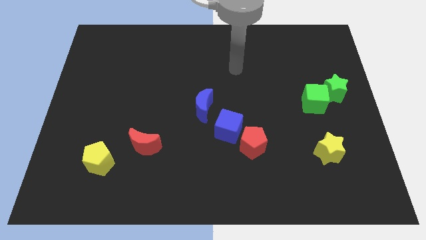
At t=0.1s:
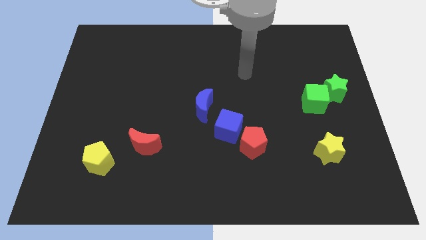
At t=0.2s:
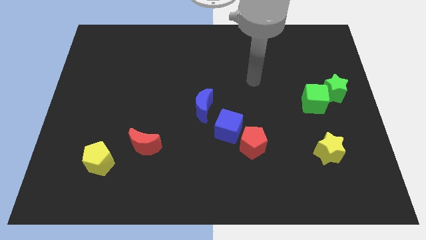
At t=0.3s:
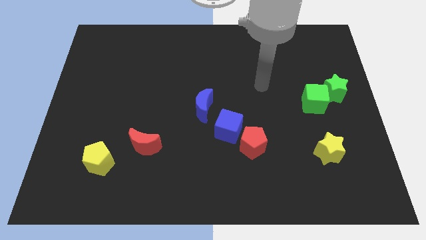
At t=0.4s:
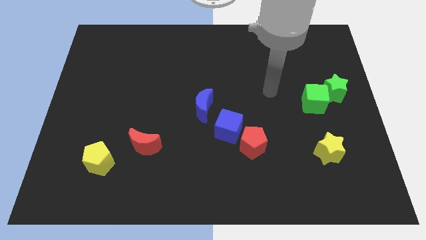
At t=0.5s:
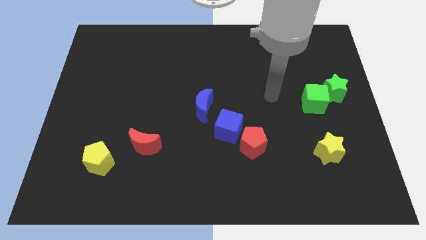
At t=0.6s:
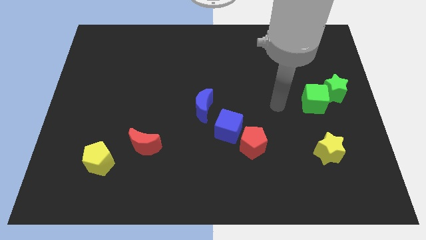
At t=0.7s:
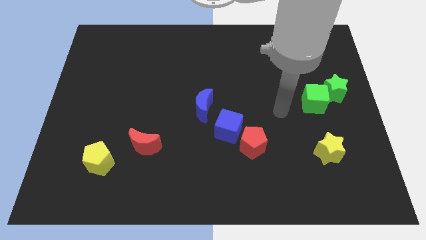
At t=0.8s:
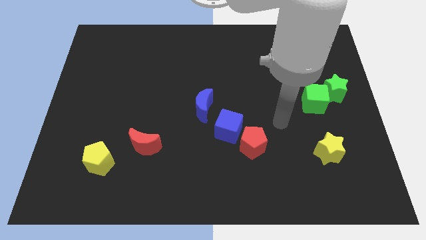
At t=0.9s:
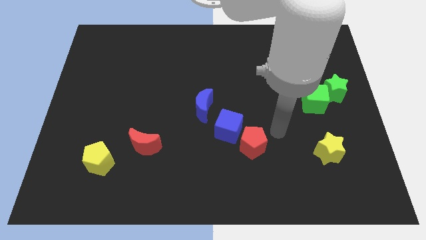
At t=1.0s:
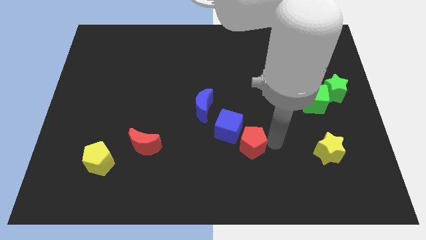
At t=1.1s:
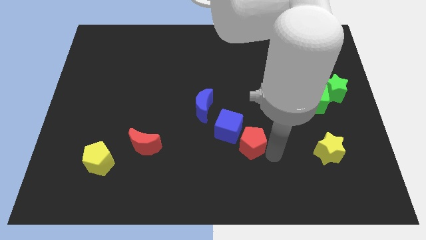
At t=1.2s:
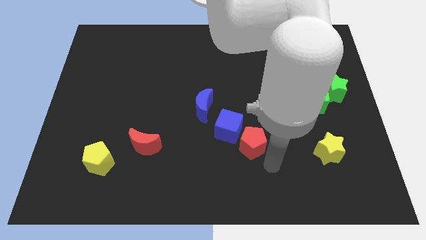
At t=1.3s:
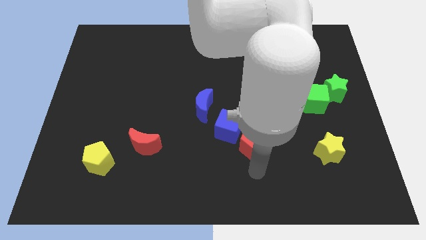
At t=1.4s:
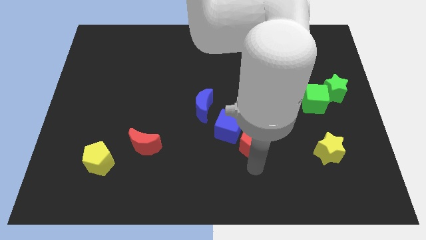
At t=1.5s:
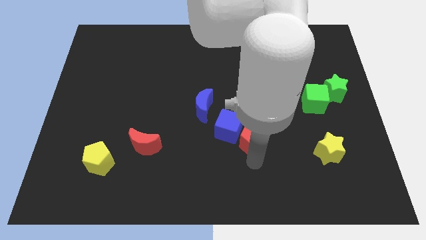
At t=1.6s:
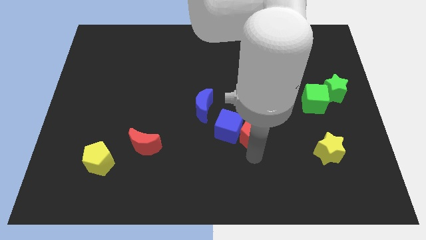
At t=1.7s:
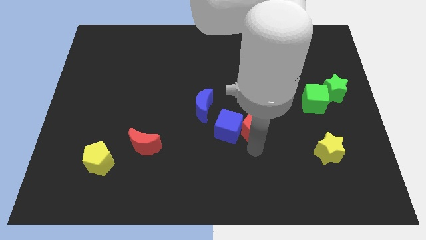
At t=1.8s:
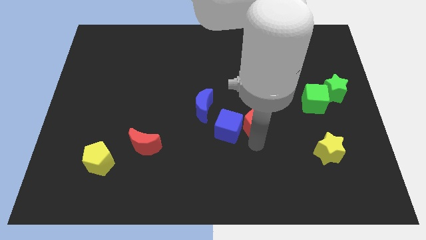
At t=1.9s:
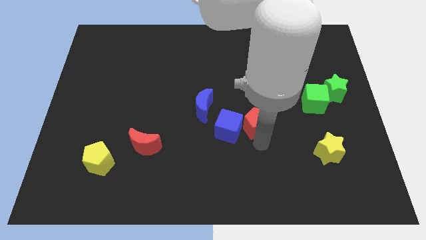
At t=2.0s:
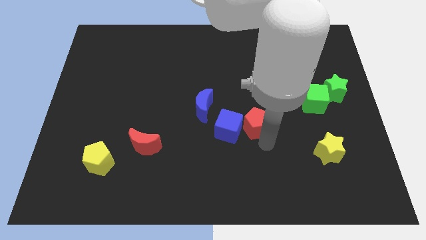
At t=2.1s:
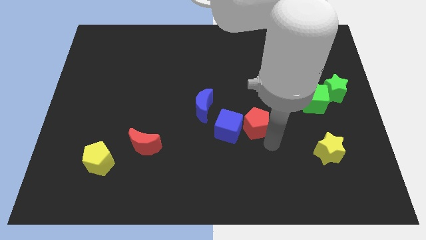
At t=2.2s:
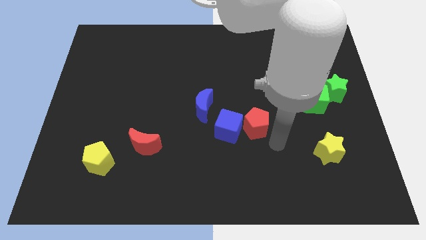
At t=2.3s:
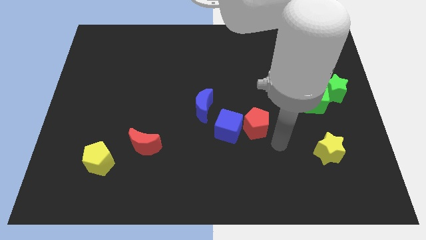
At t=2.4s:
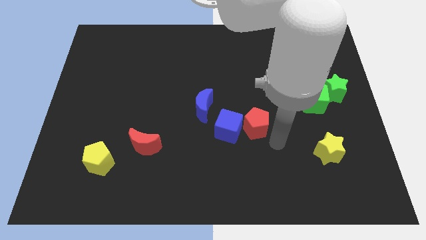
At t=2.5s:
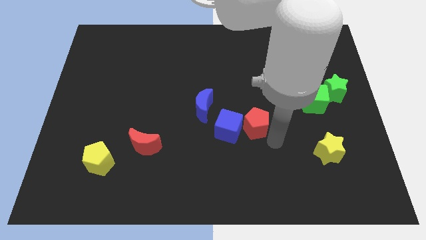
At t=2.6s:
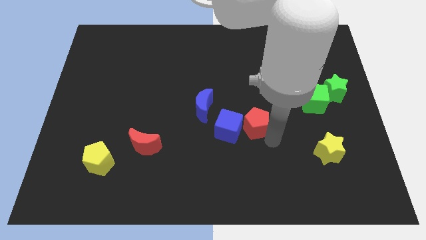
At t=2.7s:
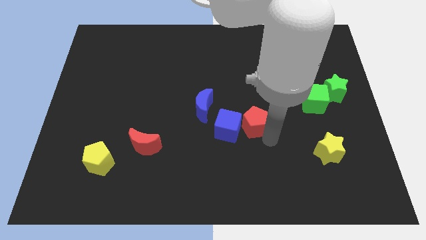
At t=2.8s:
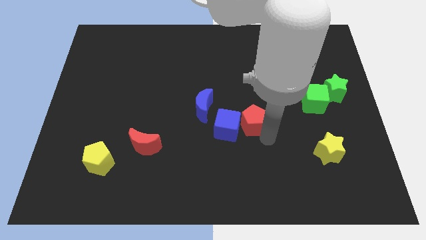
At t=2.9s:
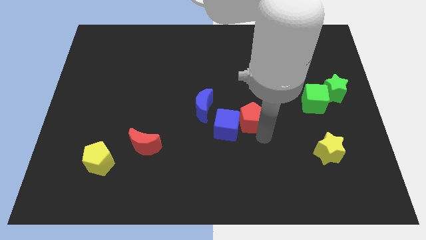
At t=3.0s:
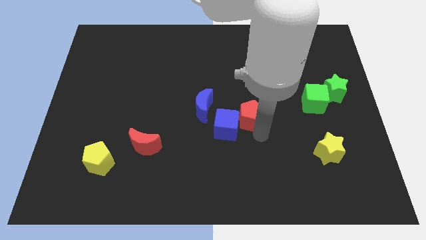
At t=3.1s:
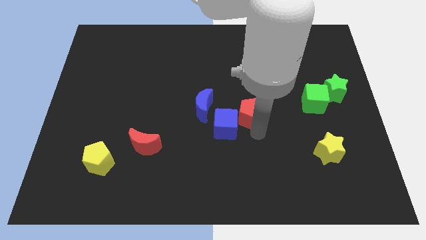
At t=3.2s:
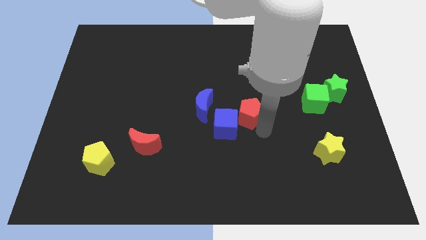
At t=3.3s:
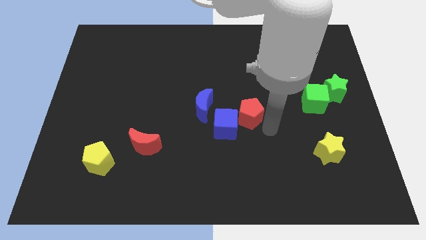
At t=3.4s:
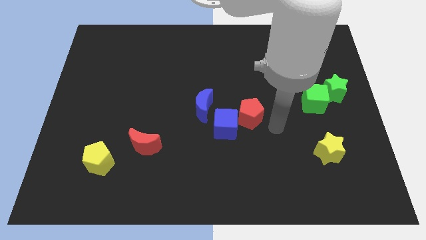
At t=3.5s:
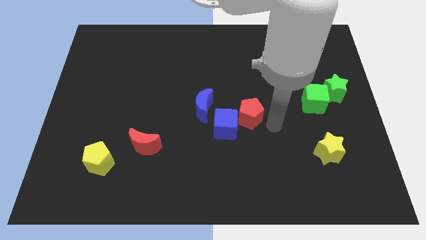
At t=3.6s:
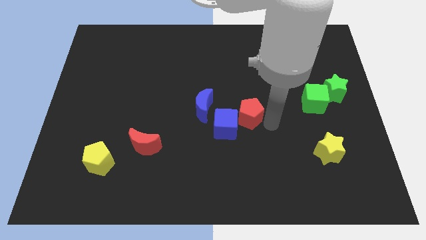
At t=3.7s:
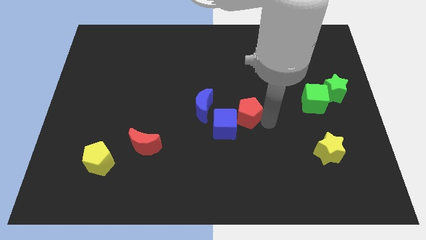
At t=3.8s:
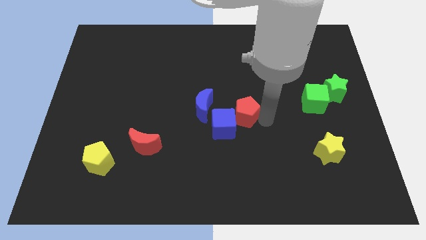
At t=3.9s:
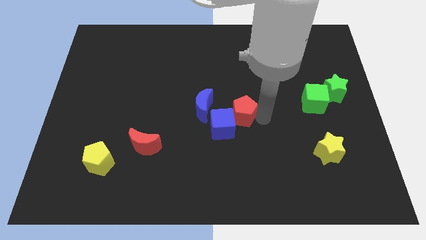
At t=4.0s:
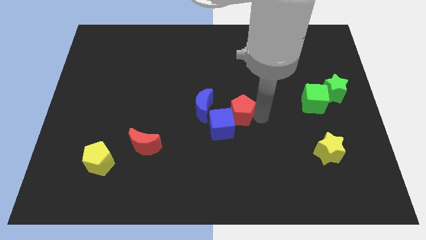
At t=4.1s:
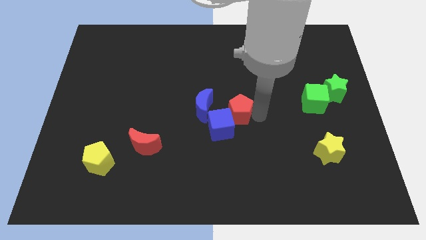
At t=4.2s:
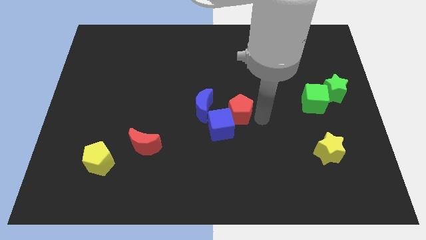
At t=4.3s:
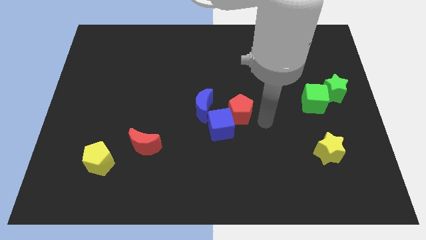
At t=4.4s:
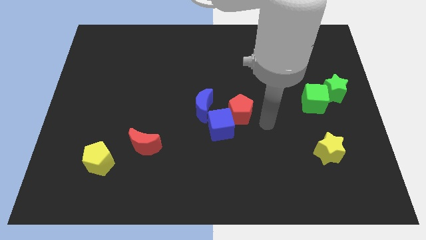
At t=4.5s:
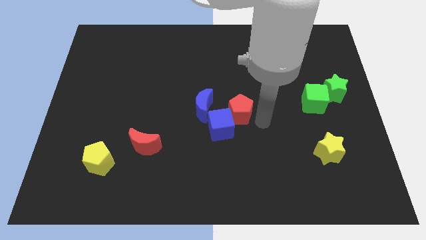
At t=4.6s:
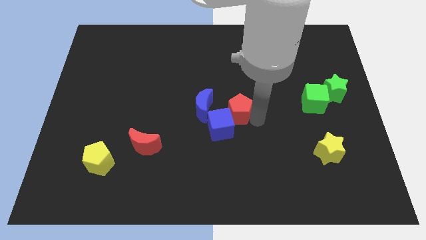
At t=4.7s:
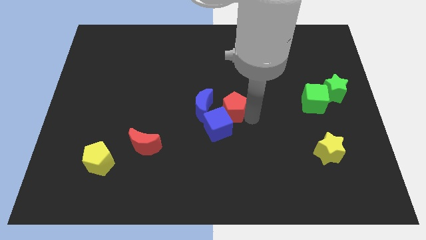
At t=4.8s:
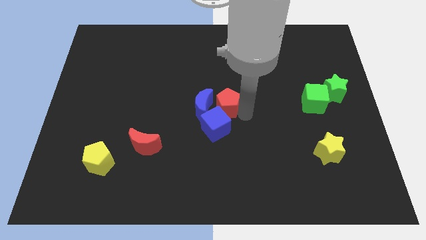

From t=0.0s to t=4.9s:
slide the red pentagon next to the blue moon

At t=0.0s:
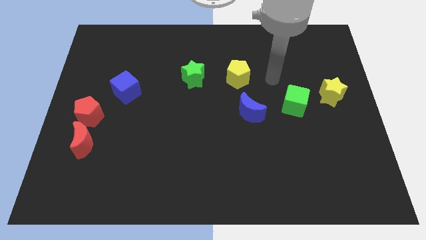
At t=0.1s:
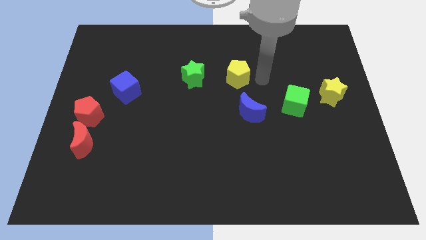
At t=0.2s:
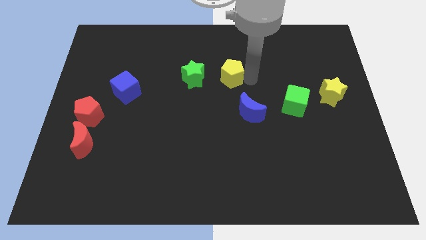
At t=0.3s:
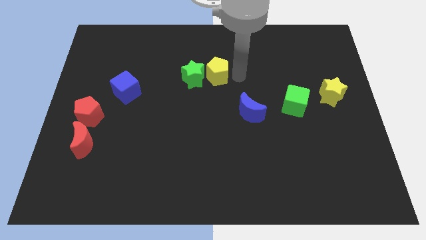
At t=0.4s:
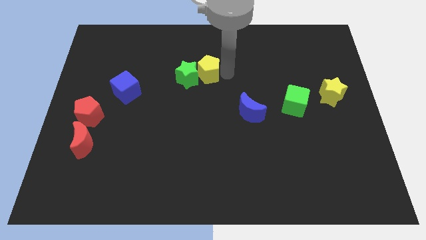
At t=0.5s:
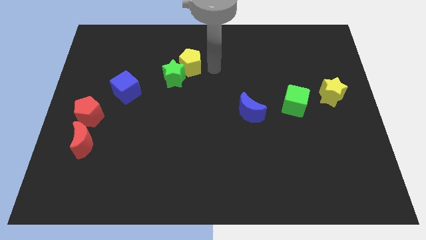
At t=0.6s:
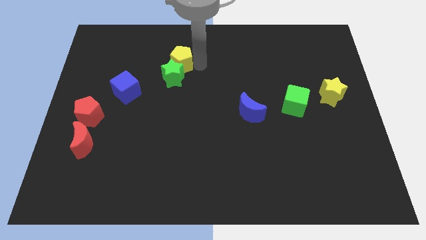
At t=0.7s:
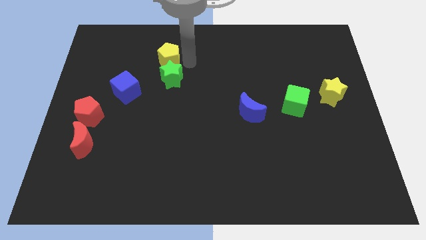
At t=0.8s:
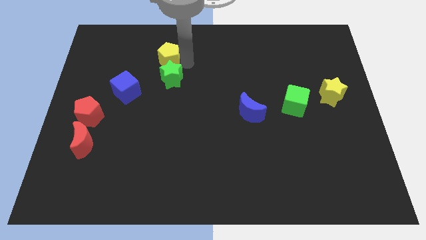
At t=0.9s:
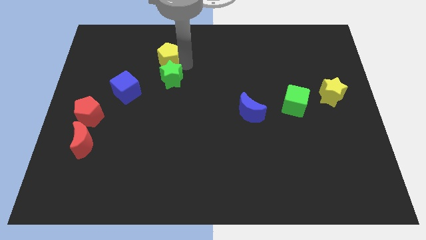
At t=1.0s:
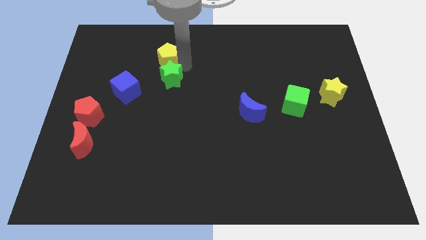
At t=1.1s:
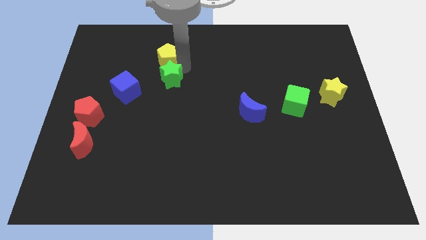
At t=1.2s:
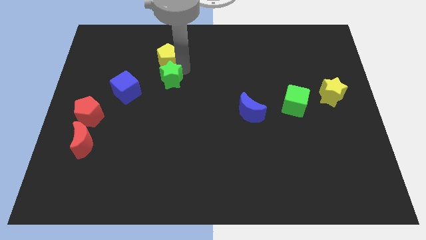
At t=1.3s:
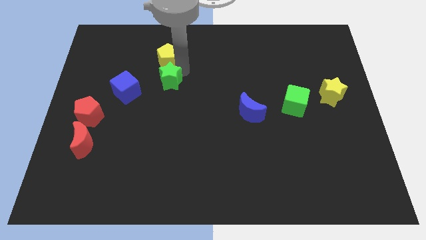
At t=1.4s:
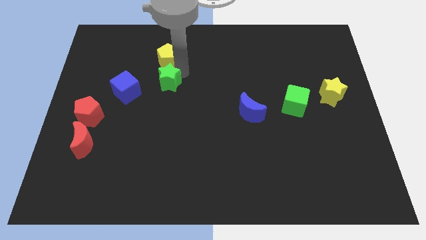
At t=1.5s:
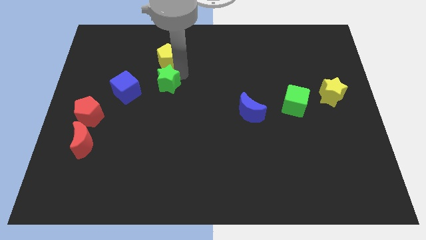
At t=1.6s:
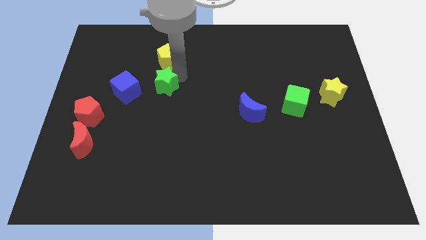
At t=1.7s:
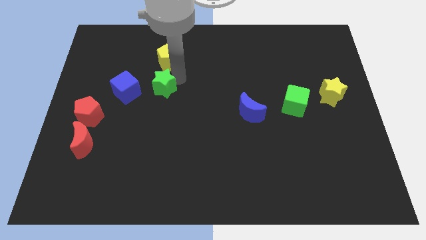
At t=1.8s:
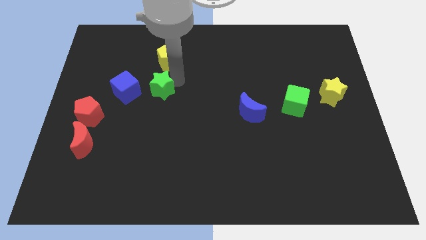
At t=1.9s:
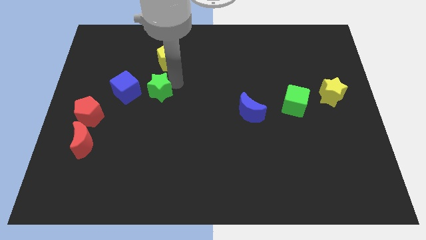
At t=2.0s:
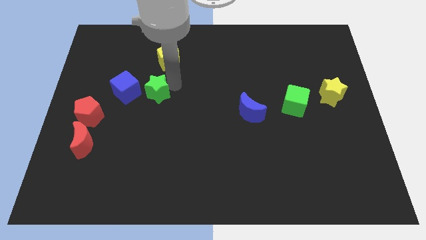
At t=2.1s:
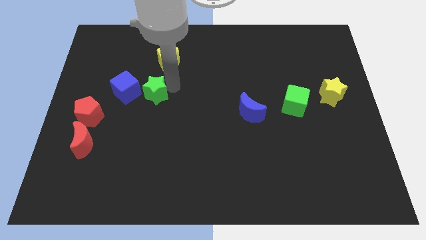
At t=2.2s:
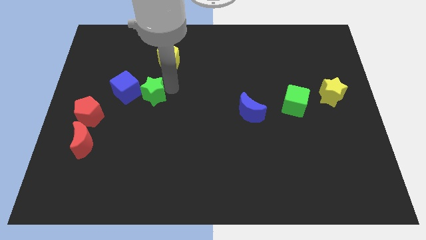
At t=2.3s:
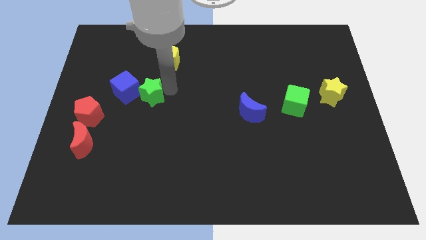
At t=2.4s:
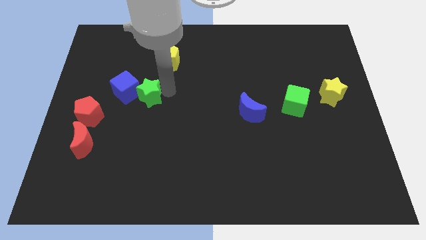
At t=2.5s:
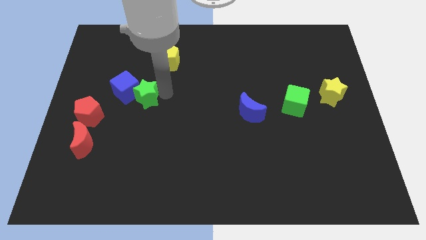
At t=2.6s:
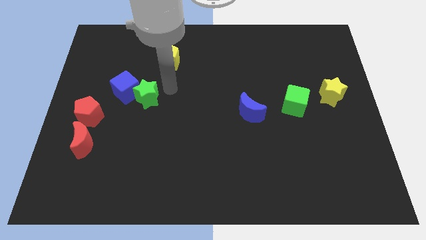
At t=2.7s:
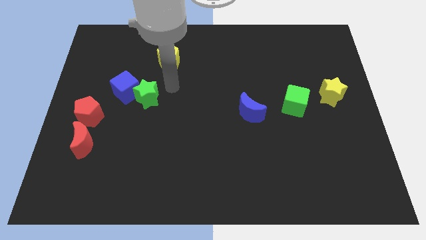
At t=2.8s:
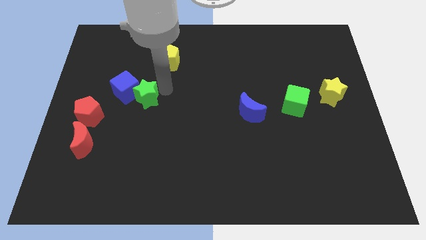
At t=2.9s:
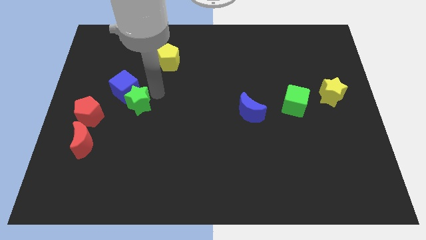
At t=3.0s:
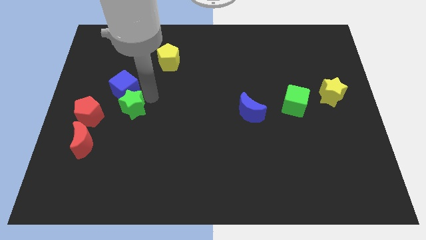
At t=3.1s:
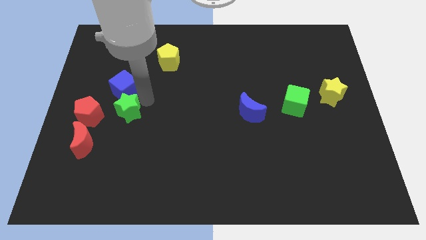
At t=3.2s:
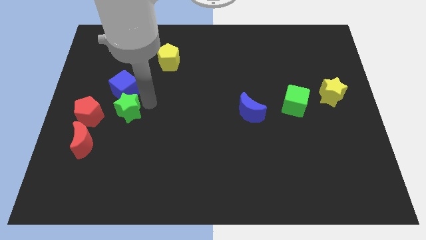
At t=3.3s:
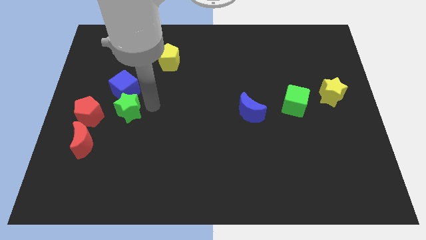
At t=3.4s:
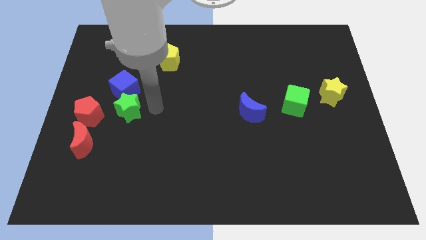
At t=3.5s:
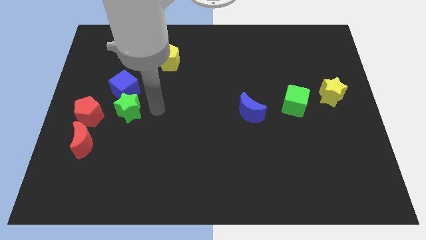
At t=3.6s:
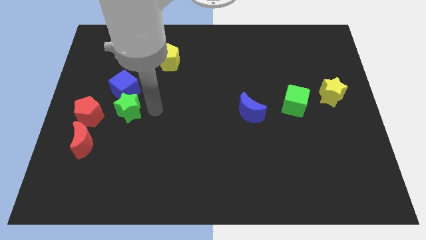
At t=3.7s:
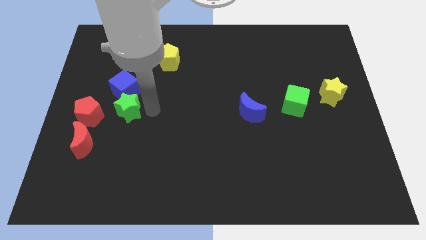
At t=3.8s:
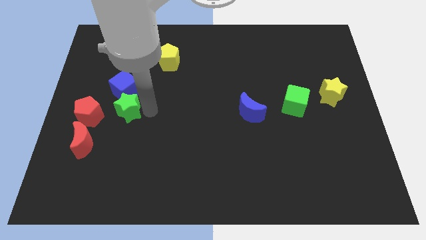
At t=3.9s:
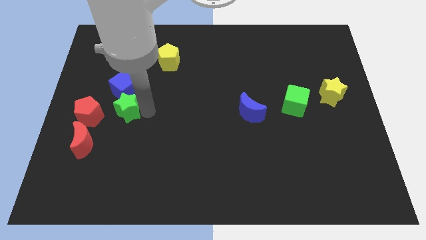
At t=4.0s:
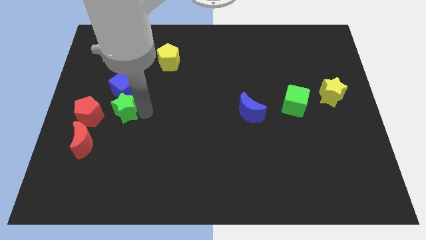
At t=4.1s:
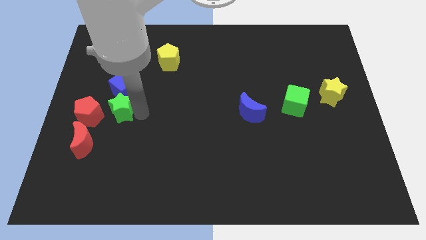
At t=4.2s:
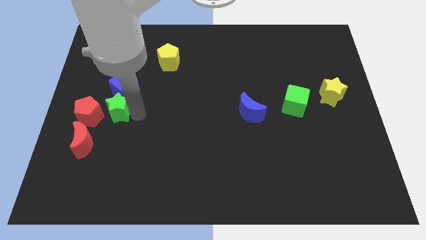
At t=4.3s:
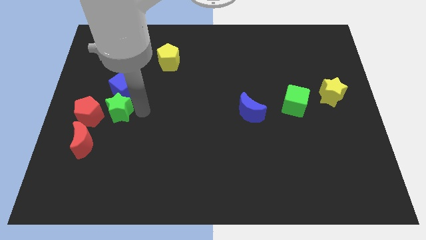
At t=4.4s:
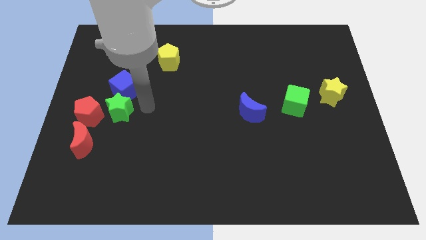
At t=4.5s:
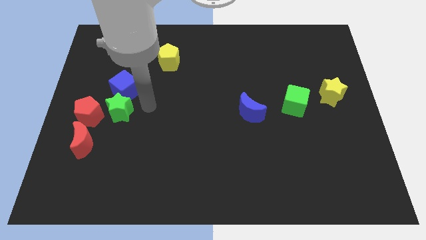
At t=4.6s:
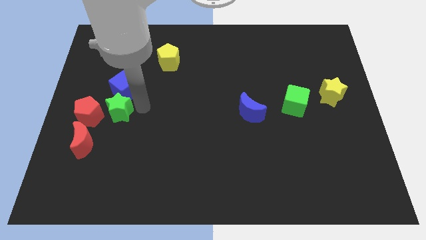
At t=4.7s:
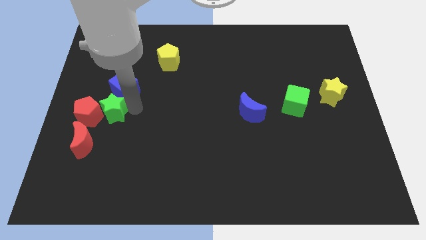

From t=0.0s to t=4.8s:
slide the green star to the red pentagon
